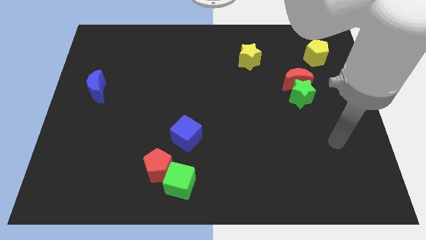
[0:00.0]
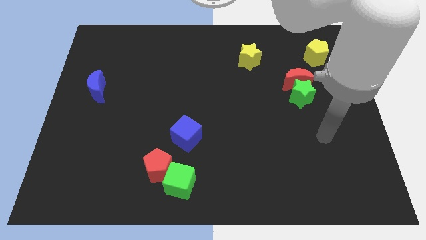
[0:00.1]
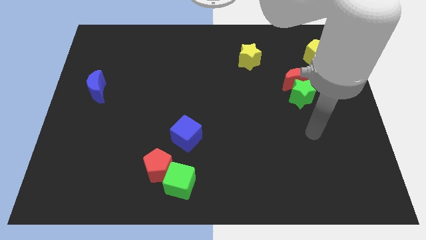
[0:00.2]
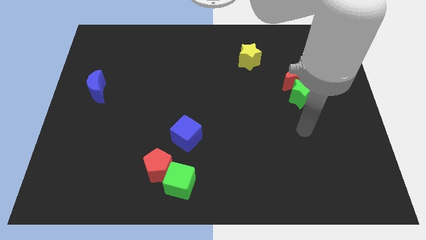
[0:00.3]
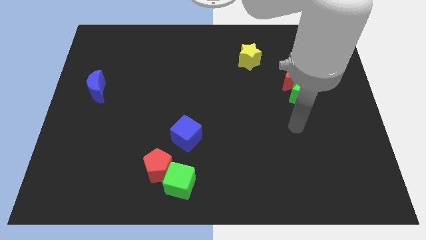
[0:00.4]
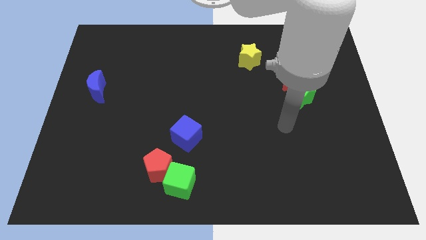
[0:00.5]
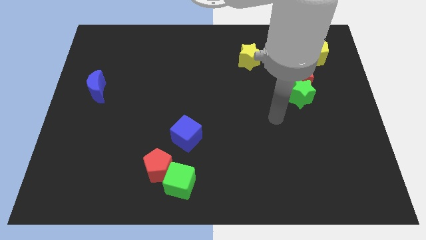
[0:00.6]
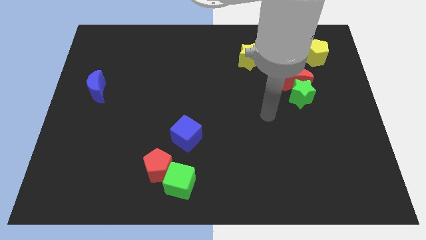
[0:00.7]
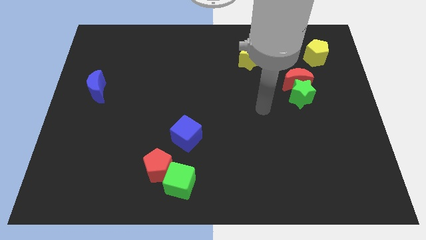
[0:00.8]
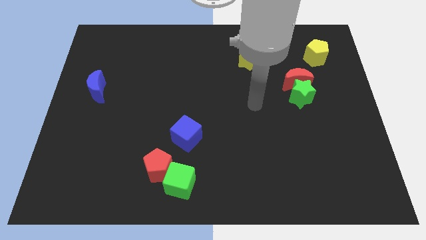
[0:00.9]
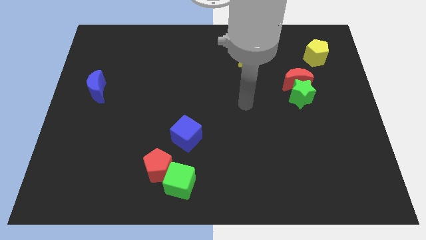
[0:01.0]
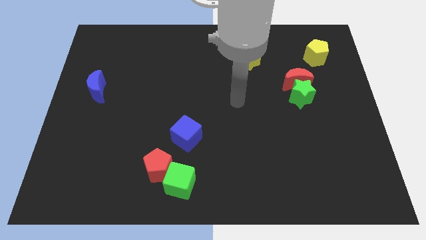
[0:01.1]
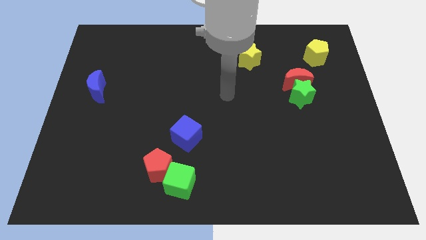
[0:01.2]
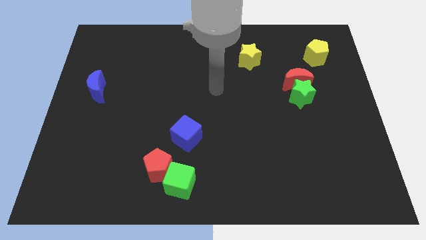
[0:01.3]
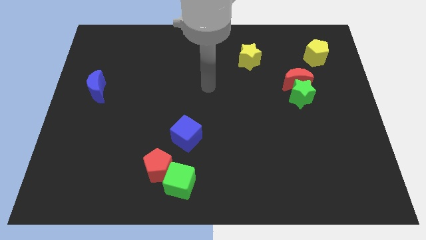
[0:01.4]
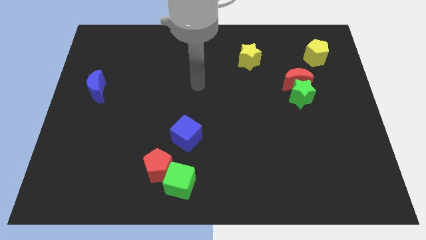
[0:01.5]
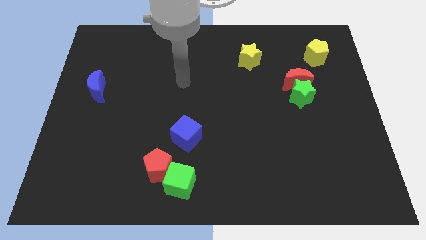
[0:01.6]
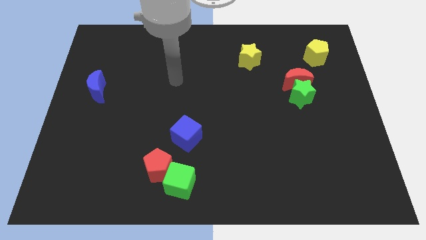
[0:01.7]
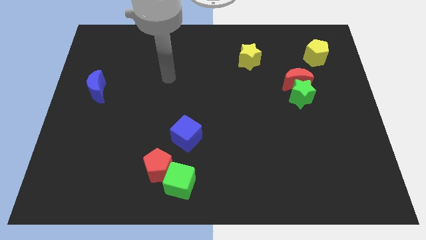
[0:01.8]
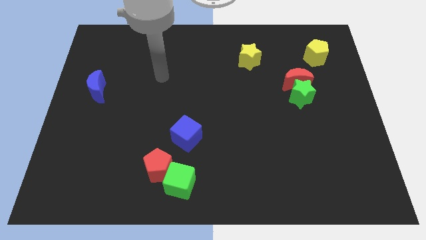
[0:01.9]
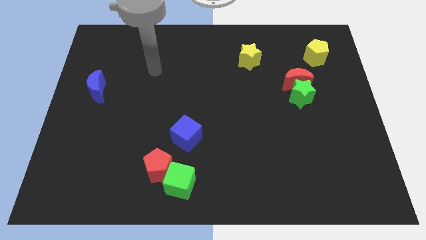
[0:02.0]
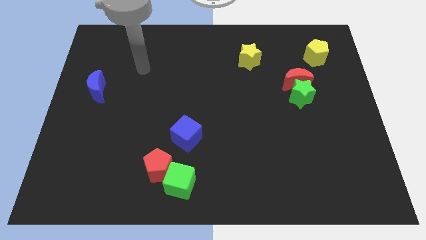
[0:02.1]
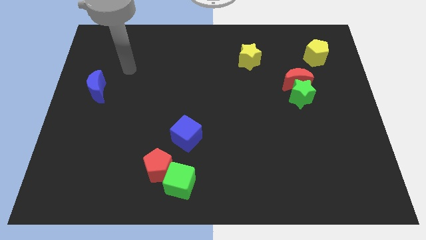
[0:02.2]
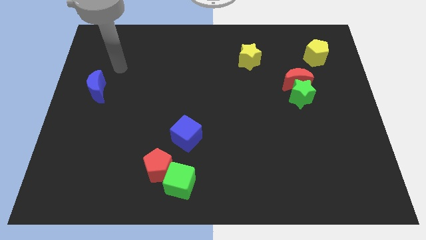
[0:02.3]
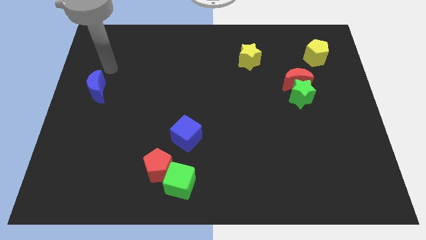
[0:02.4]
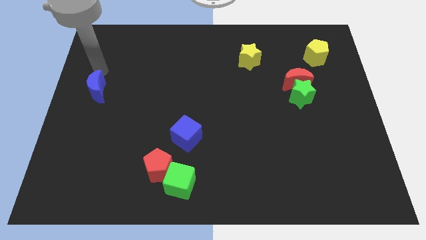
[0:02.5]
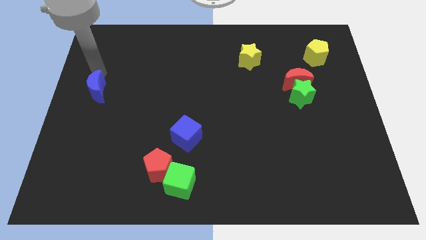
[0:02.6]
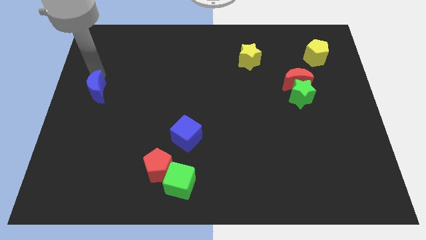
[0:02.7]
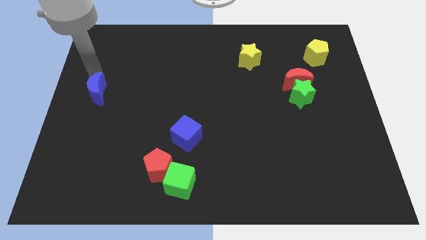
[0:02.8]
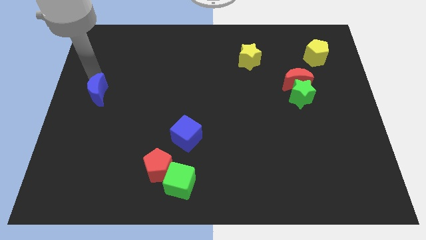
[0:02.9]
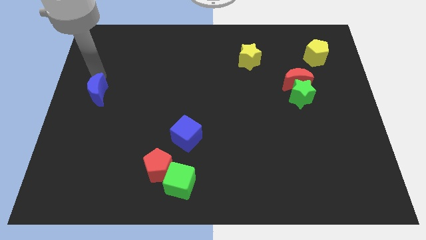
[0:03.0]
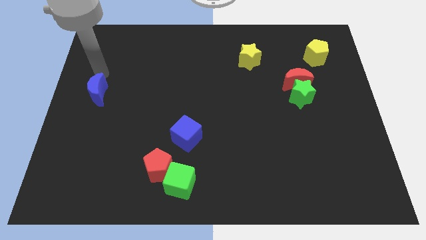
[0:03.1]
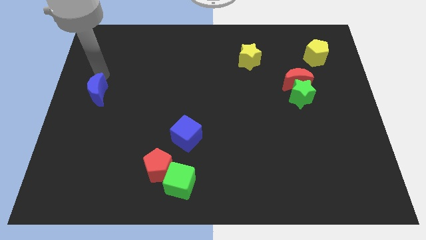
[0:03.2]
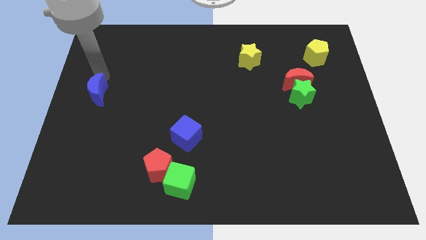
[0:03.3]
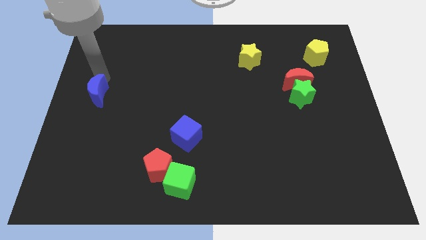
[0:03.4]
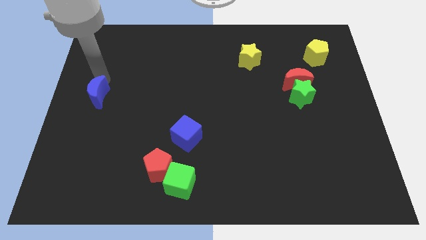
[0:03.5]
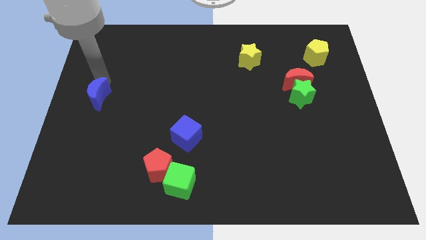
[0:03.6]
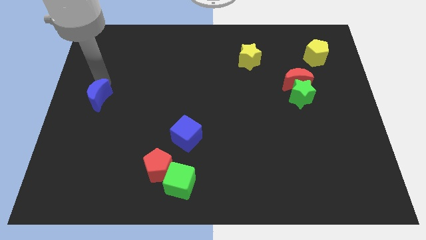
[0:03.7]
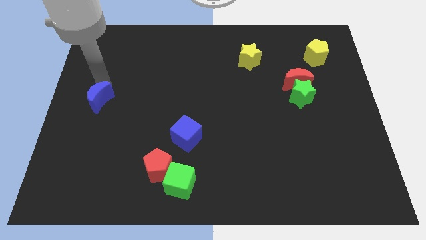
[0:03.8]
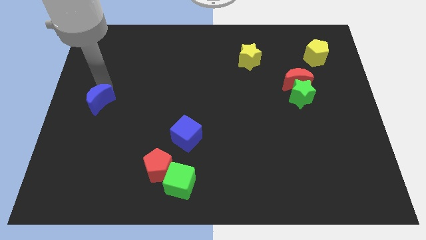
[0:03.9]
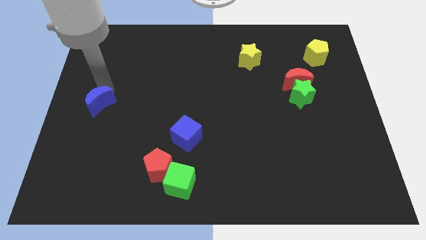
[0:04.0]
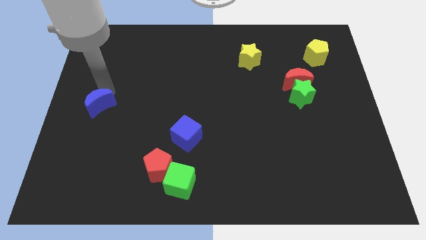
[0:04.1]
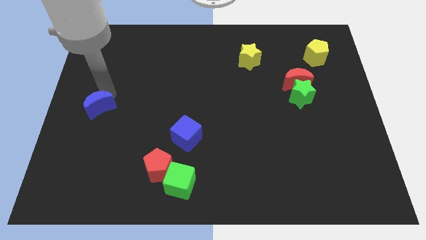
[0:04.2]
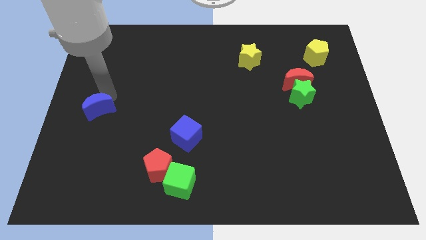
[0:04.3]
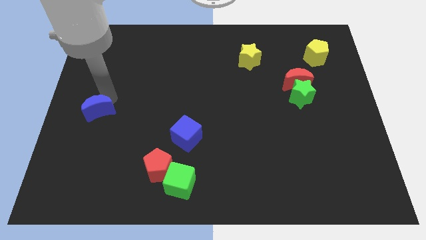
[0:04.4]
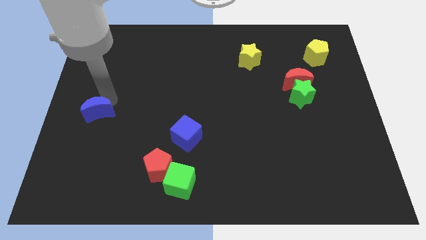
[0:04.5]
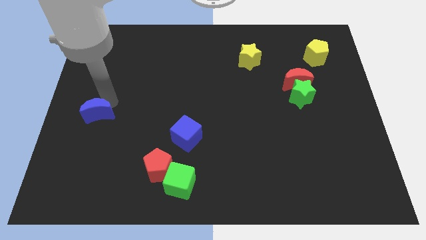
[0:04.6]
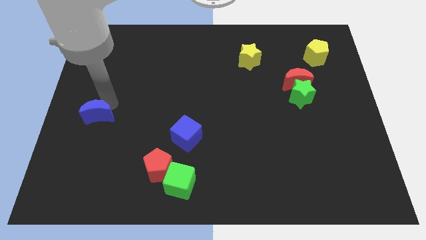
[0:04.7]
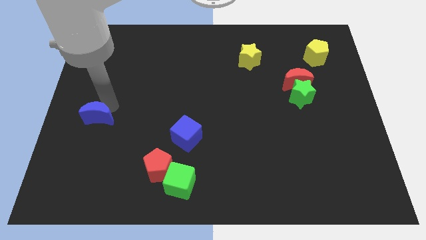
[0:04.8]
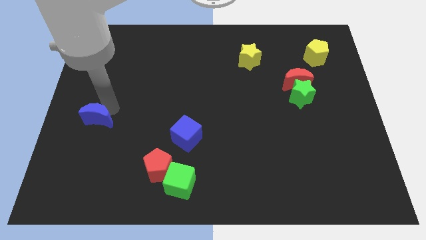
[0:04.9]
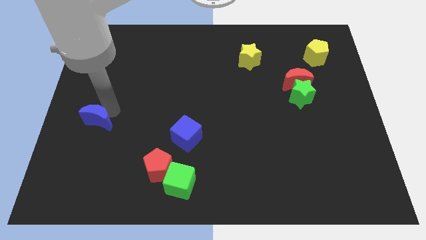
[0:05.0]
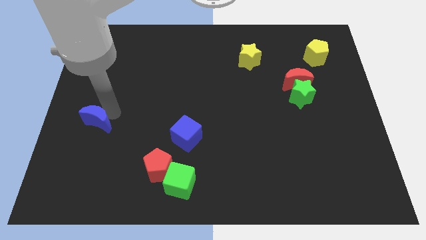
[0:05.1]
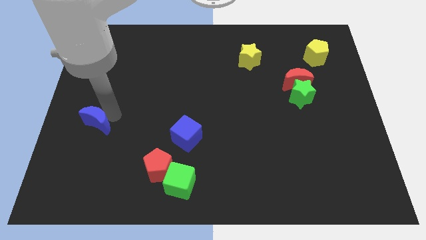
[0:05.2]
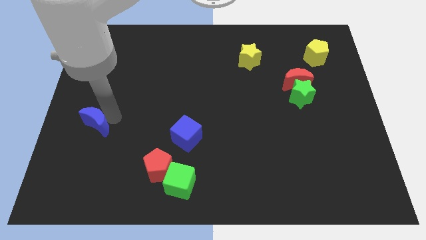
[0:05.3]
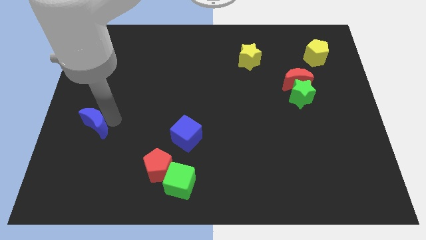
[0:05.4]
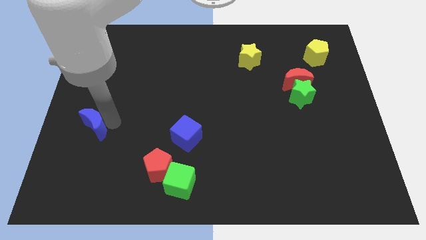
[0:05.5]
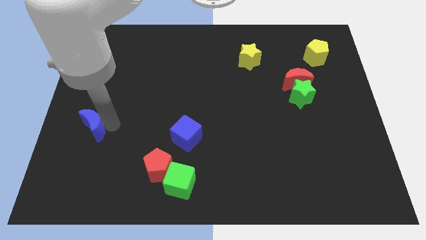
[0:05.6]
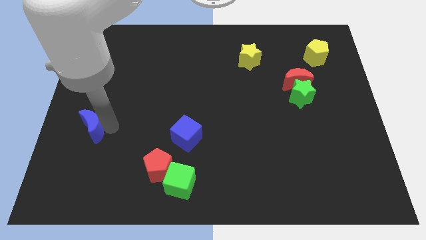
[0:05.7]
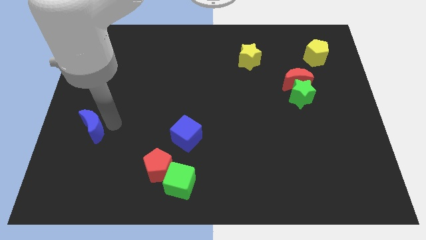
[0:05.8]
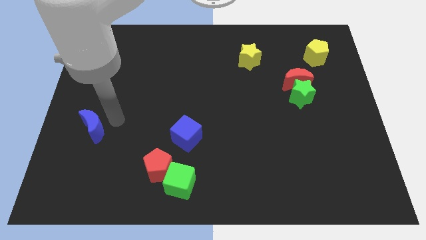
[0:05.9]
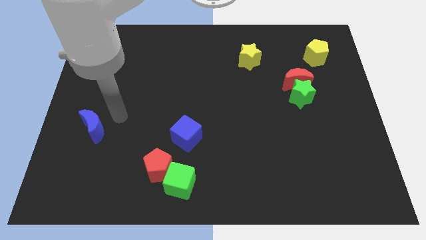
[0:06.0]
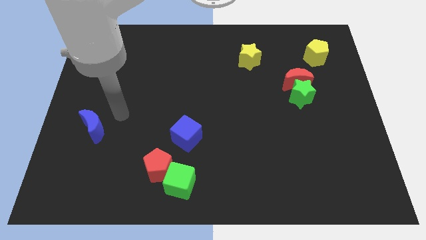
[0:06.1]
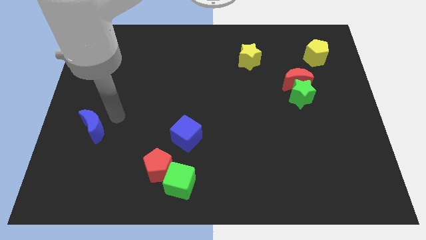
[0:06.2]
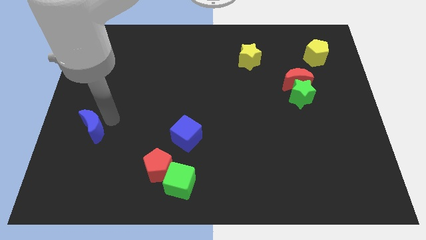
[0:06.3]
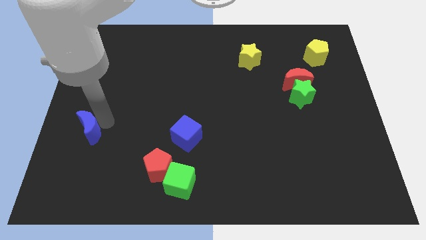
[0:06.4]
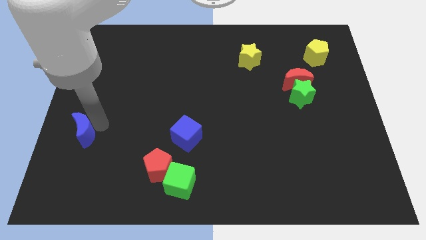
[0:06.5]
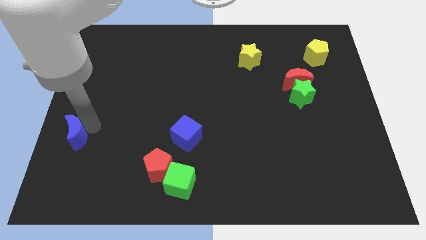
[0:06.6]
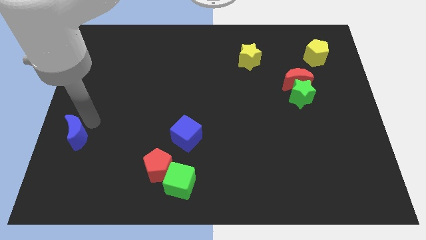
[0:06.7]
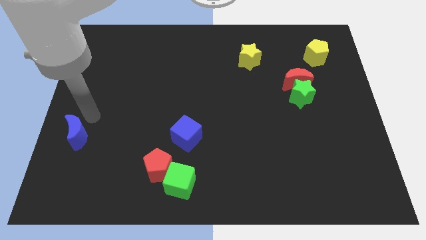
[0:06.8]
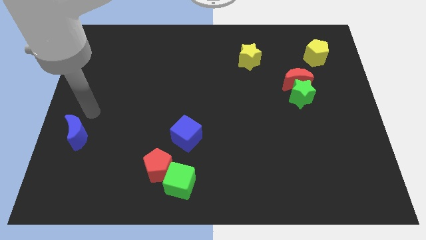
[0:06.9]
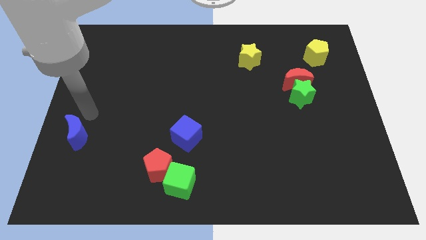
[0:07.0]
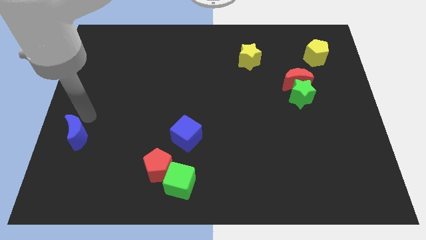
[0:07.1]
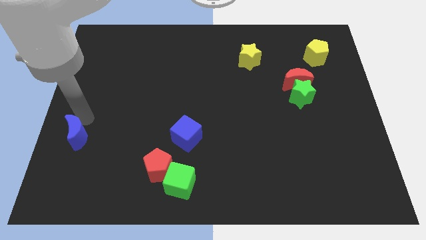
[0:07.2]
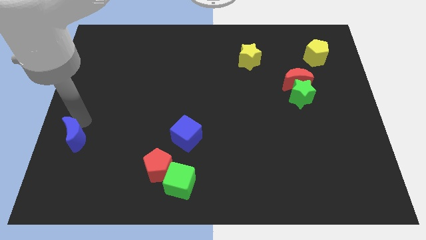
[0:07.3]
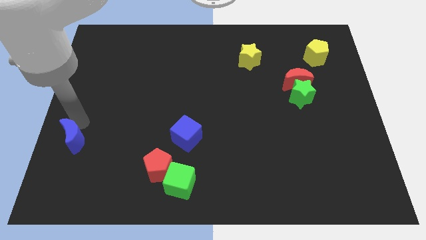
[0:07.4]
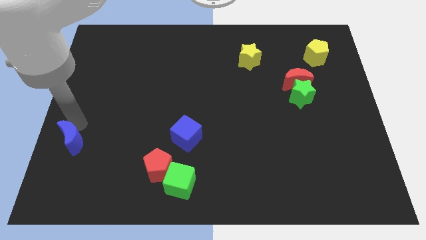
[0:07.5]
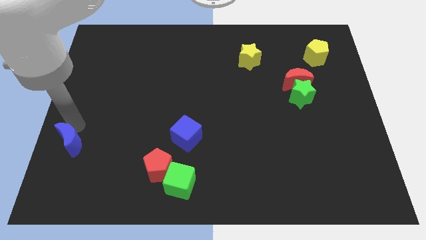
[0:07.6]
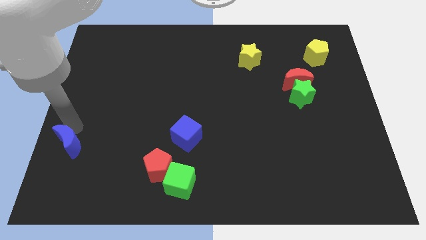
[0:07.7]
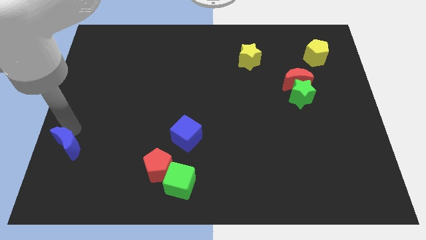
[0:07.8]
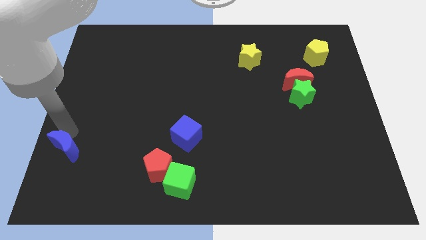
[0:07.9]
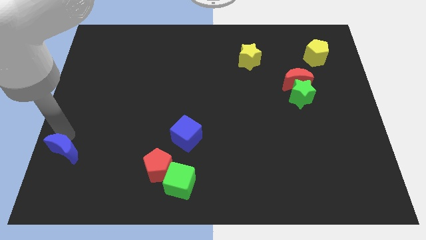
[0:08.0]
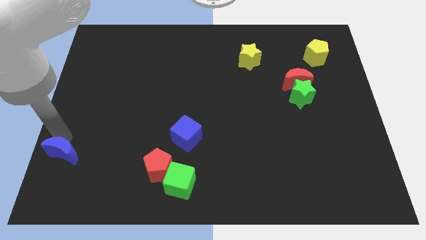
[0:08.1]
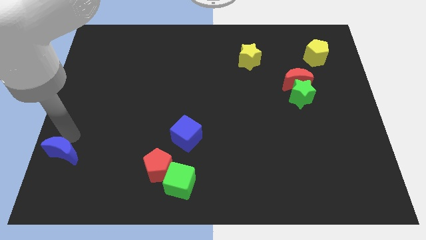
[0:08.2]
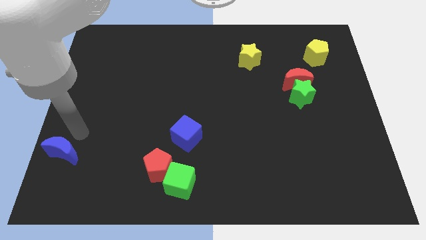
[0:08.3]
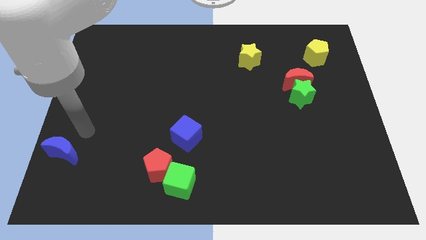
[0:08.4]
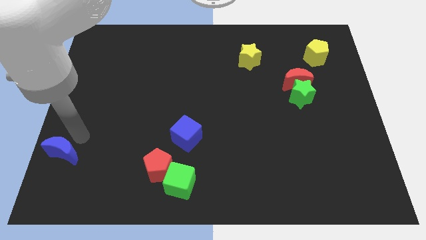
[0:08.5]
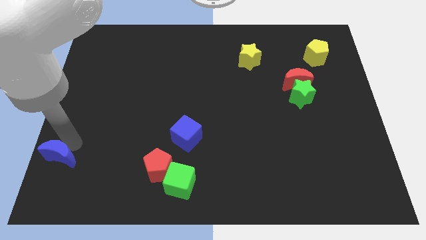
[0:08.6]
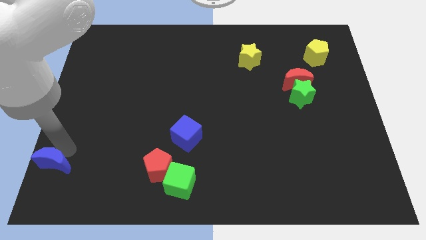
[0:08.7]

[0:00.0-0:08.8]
push the blue moon to the lower left corner
